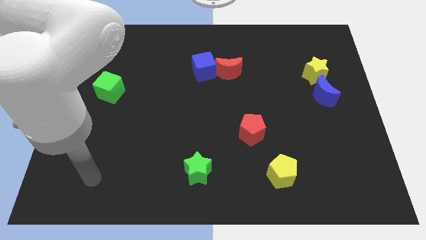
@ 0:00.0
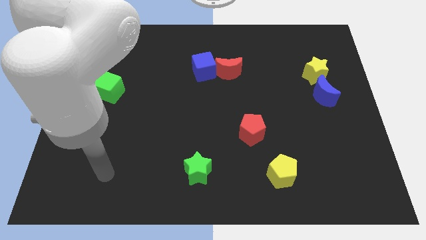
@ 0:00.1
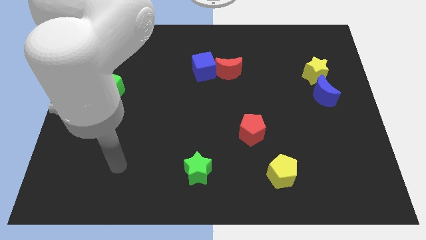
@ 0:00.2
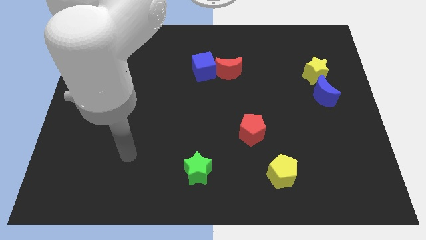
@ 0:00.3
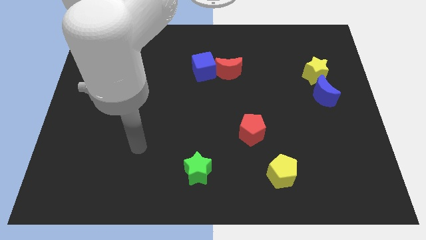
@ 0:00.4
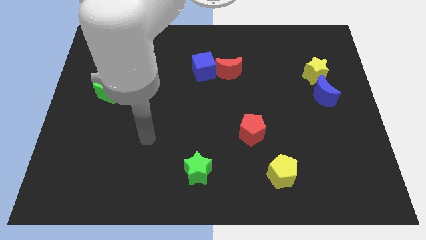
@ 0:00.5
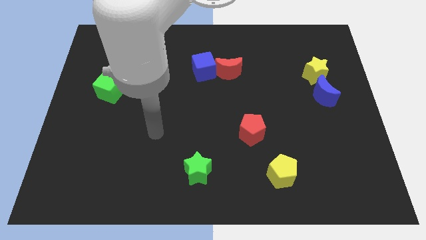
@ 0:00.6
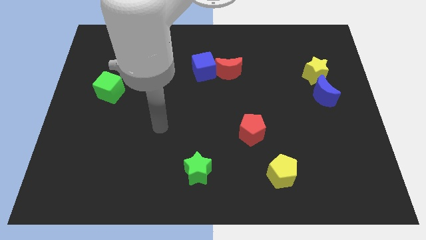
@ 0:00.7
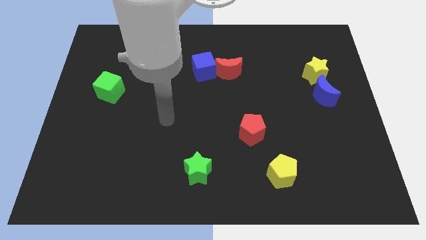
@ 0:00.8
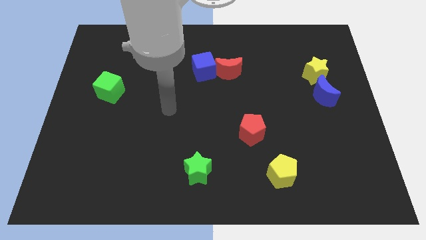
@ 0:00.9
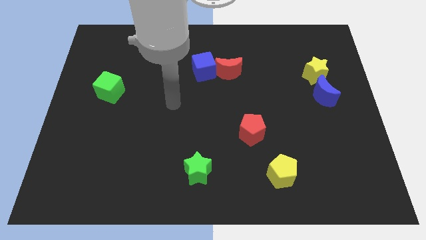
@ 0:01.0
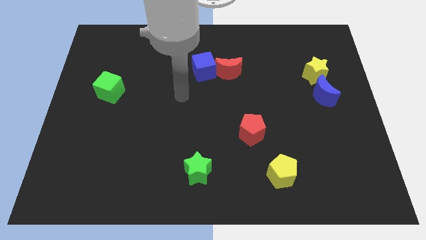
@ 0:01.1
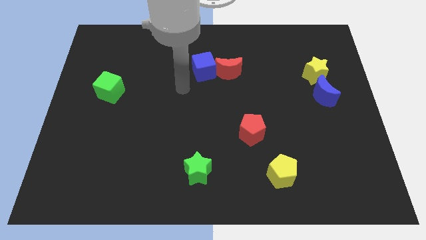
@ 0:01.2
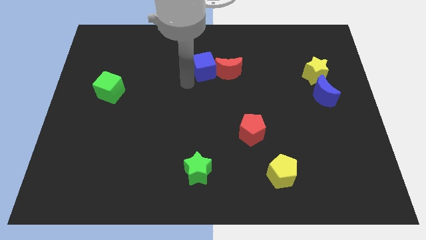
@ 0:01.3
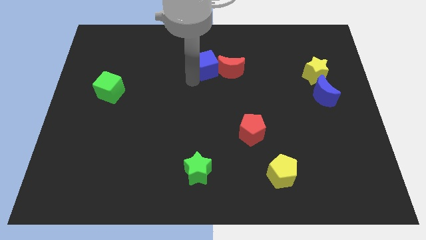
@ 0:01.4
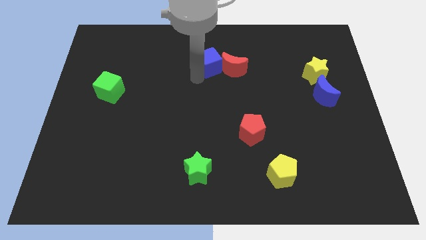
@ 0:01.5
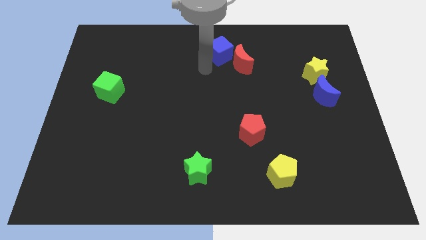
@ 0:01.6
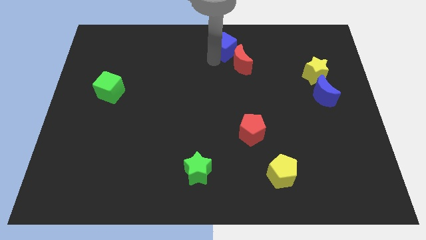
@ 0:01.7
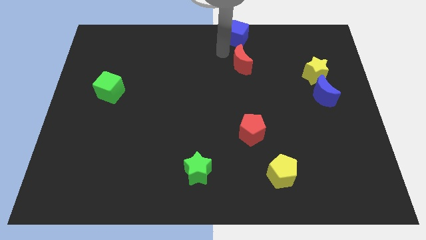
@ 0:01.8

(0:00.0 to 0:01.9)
separate the red moon from the blue cube

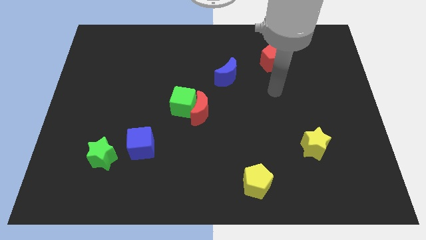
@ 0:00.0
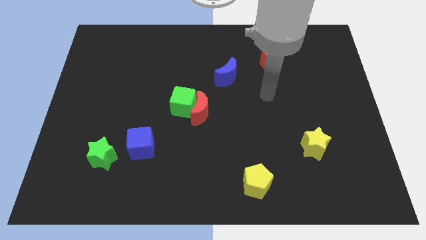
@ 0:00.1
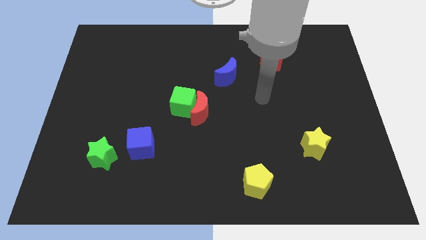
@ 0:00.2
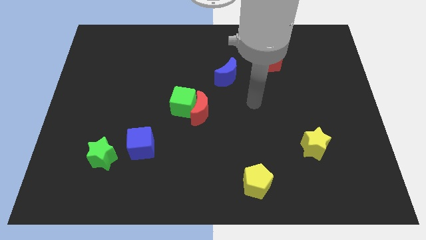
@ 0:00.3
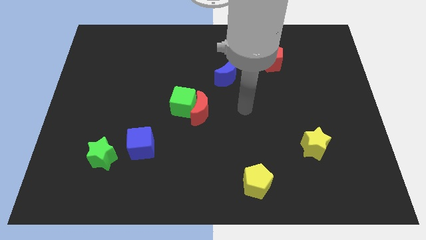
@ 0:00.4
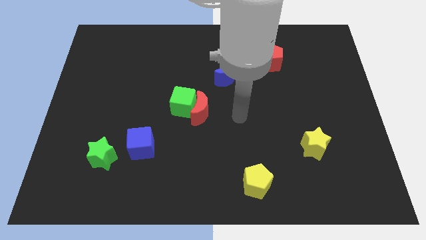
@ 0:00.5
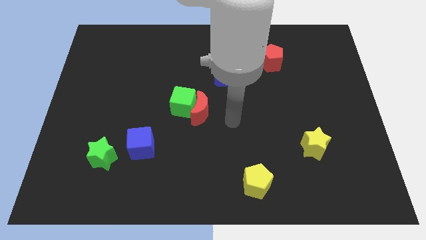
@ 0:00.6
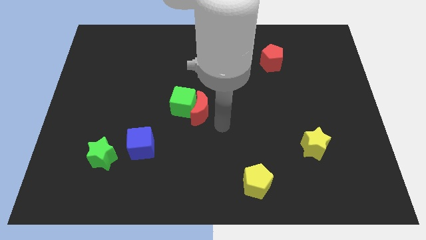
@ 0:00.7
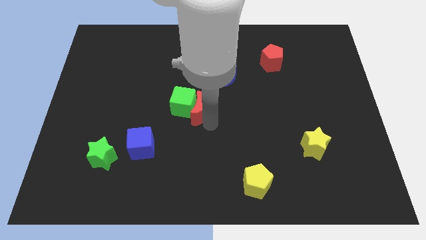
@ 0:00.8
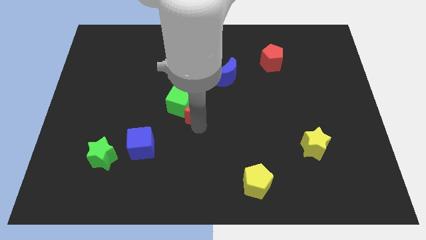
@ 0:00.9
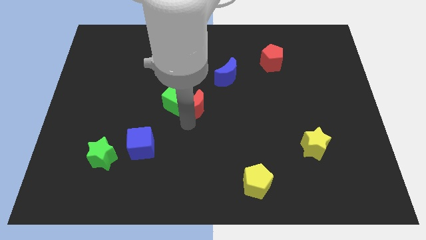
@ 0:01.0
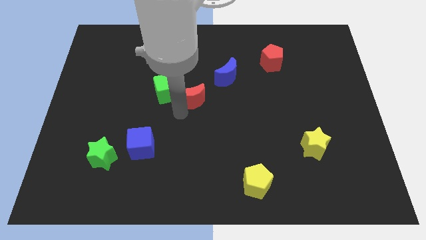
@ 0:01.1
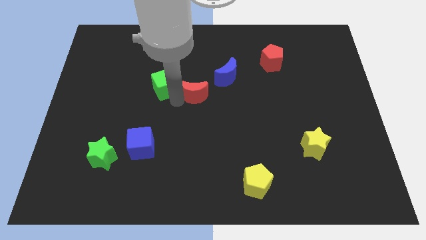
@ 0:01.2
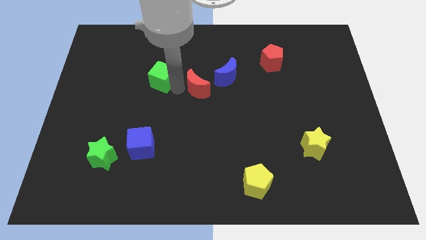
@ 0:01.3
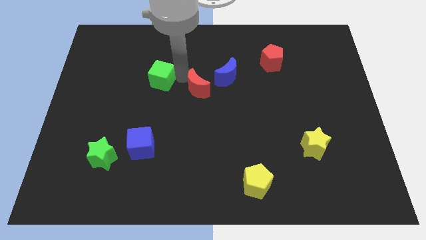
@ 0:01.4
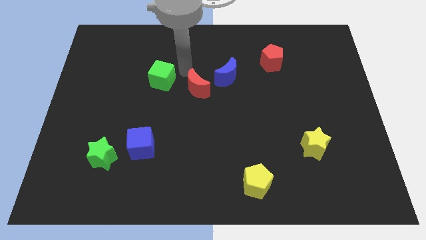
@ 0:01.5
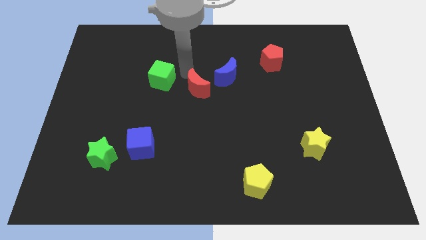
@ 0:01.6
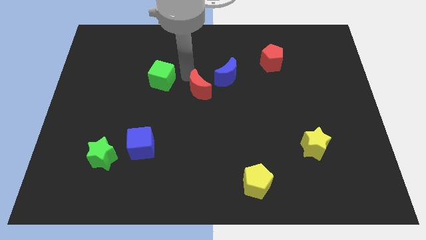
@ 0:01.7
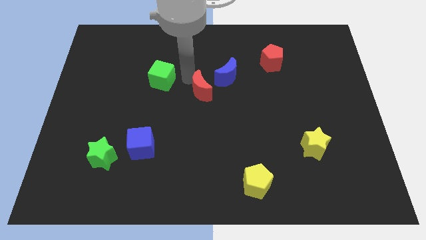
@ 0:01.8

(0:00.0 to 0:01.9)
pull the red moon apart from the green cube

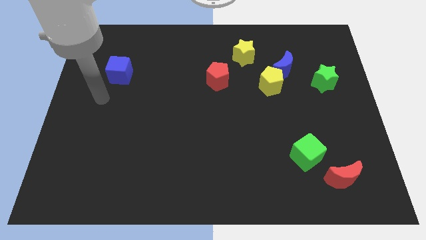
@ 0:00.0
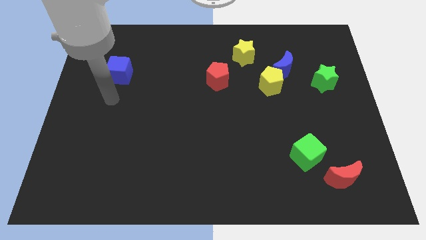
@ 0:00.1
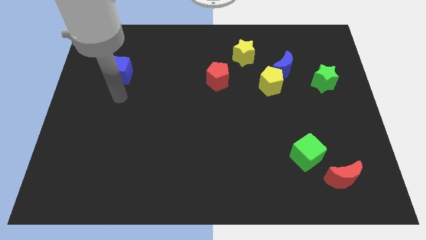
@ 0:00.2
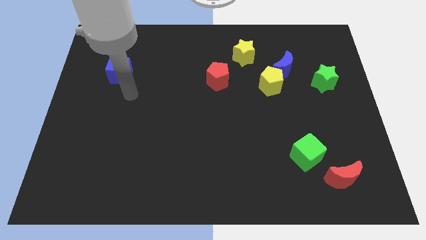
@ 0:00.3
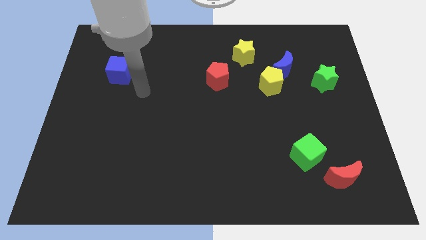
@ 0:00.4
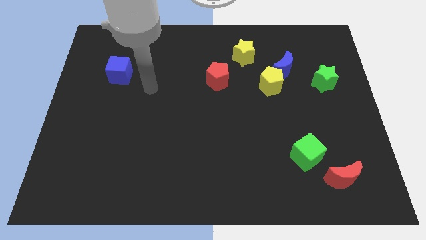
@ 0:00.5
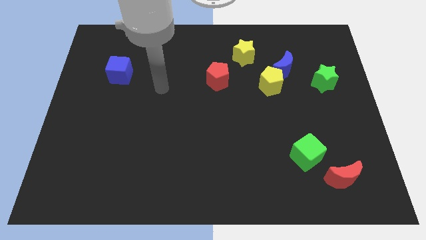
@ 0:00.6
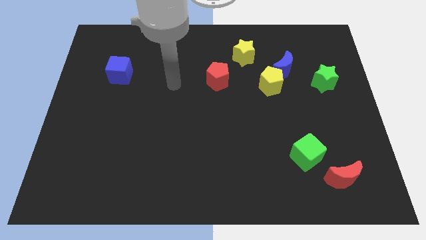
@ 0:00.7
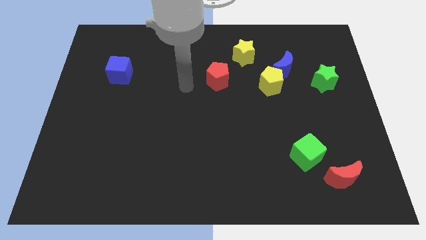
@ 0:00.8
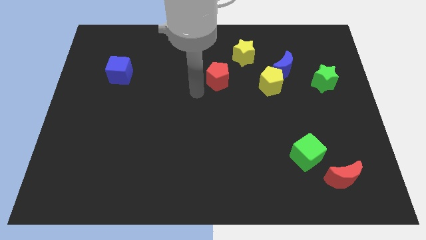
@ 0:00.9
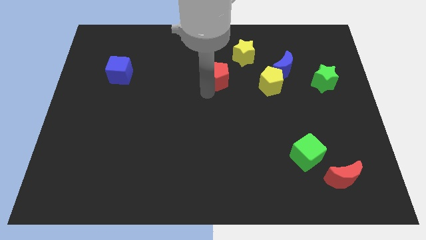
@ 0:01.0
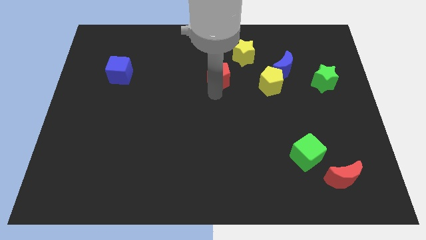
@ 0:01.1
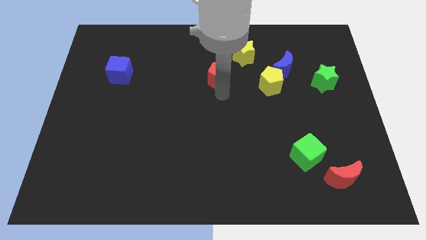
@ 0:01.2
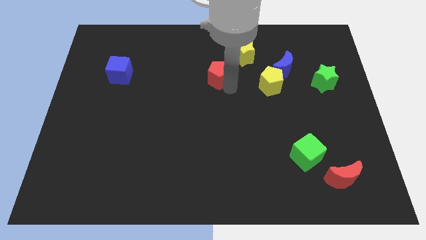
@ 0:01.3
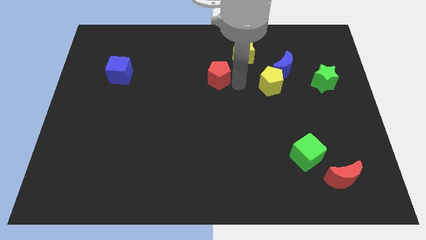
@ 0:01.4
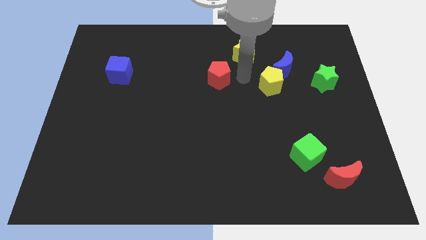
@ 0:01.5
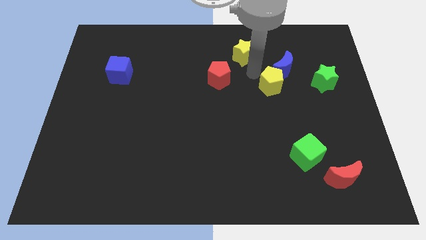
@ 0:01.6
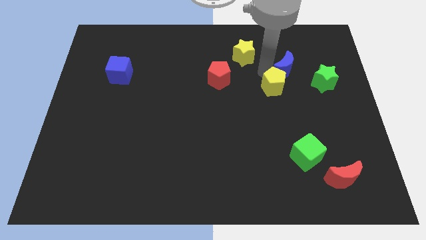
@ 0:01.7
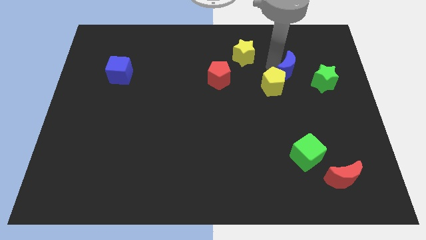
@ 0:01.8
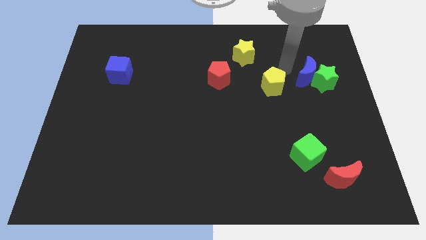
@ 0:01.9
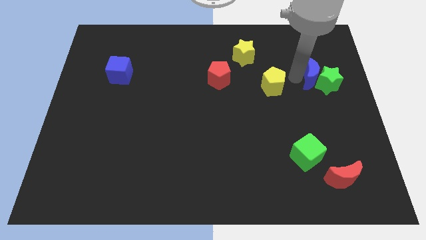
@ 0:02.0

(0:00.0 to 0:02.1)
separate the yellow pentagon from the blue moon

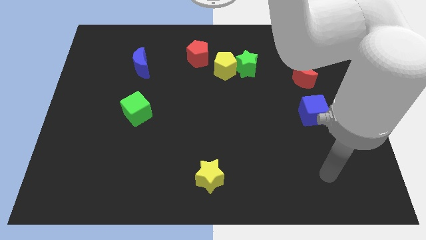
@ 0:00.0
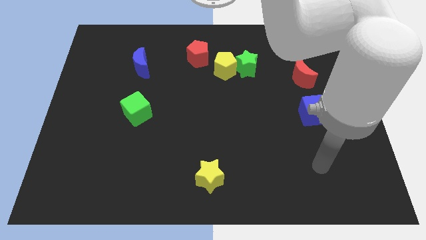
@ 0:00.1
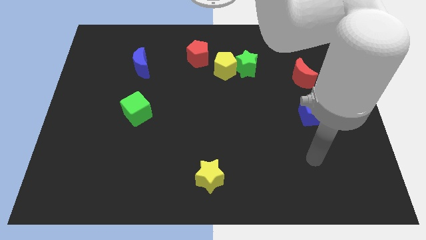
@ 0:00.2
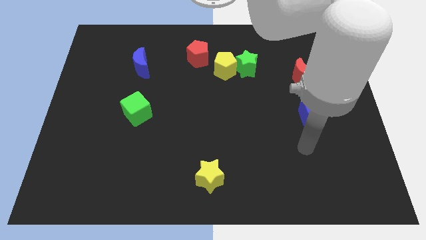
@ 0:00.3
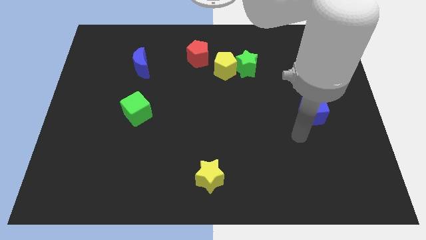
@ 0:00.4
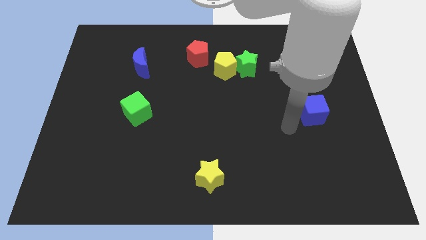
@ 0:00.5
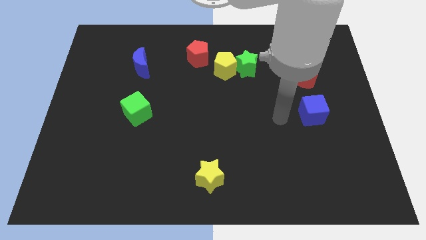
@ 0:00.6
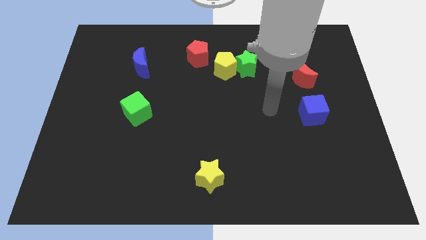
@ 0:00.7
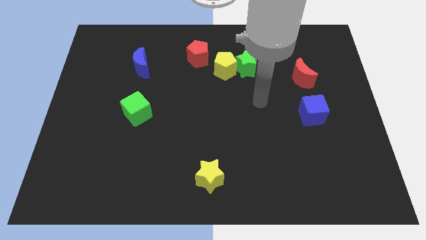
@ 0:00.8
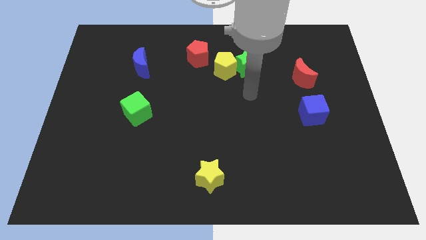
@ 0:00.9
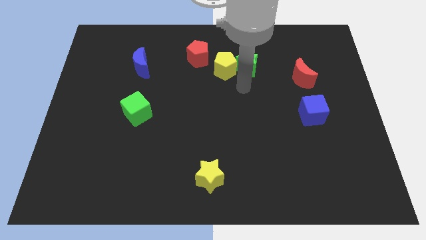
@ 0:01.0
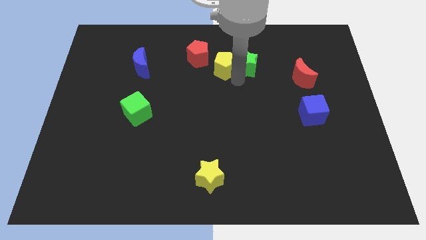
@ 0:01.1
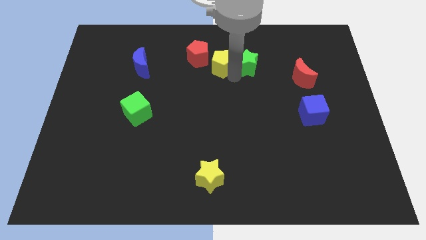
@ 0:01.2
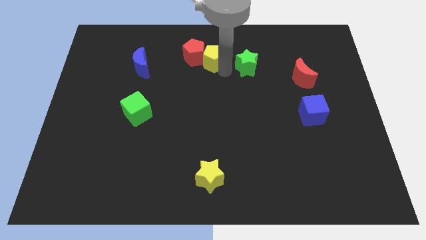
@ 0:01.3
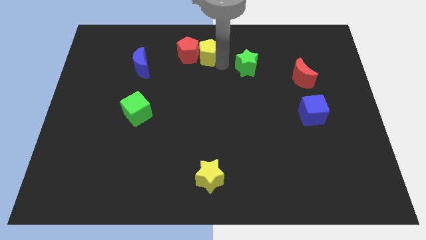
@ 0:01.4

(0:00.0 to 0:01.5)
separate the green star from the yellow pentagon

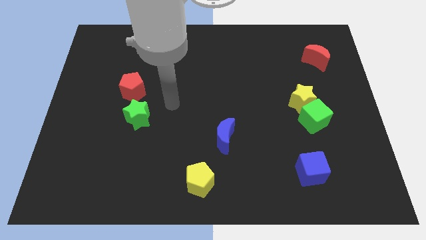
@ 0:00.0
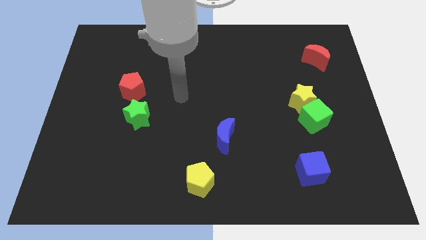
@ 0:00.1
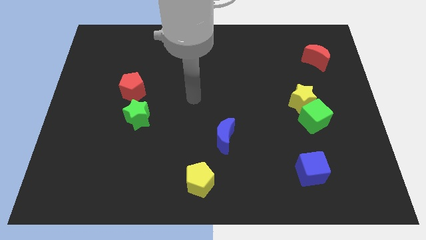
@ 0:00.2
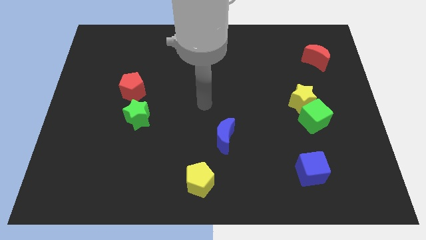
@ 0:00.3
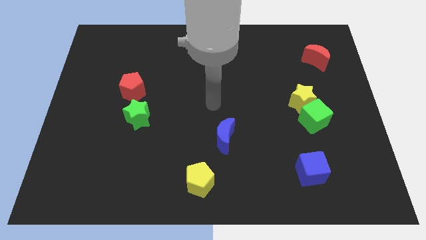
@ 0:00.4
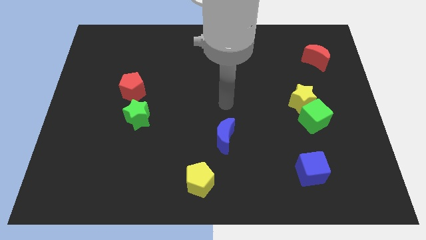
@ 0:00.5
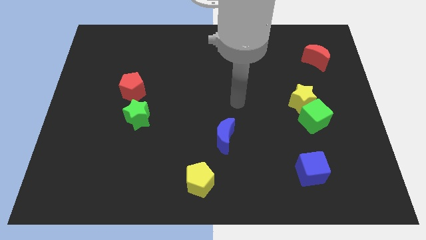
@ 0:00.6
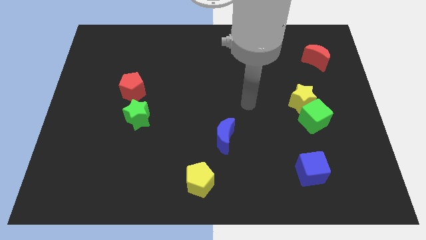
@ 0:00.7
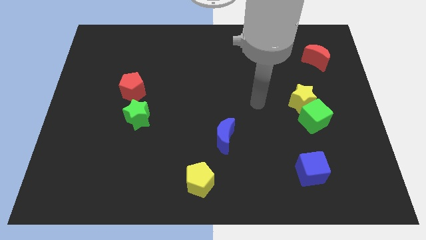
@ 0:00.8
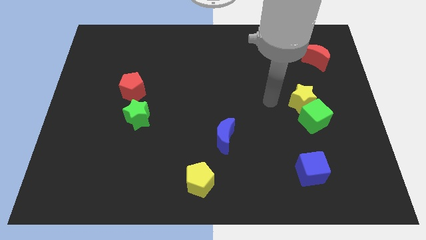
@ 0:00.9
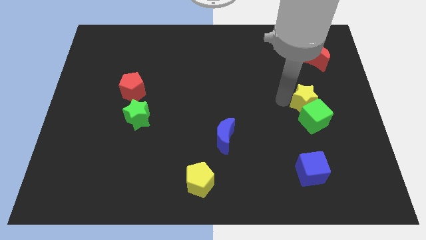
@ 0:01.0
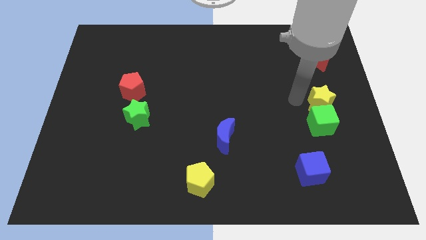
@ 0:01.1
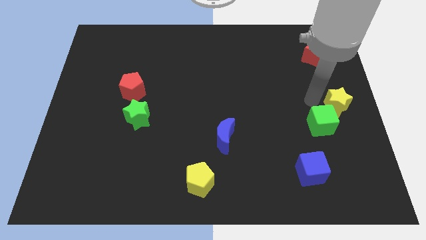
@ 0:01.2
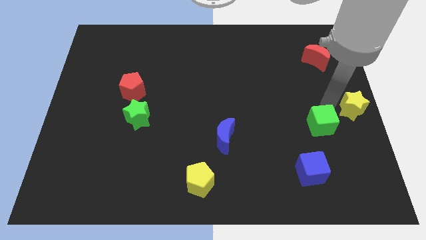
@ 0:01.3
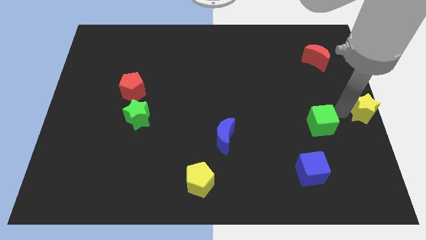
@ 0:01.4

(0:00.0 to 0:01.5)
move the green cube away from the yellow star

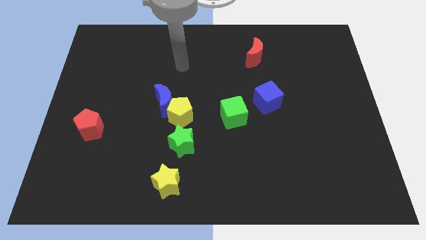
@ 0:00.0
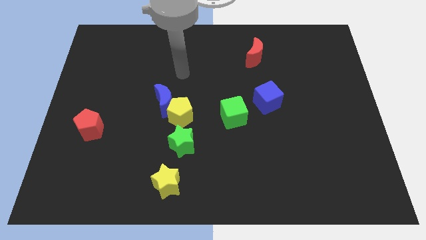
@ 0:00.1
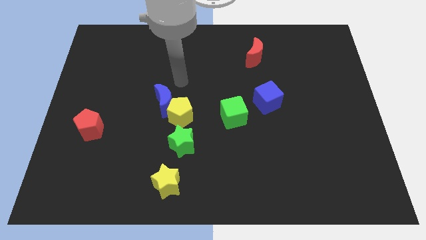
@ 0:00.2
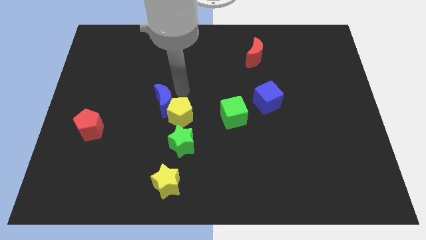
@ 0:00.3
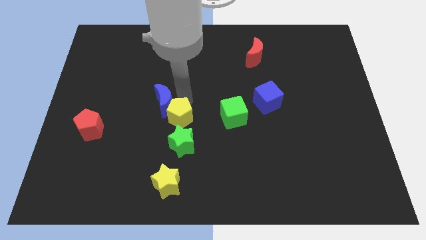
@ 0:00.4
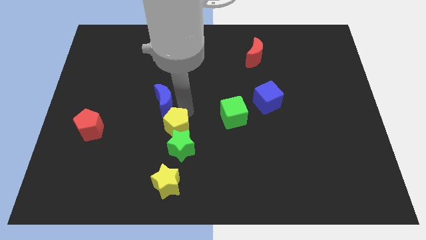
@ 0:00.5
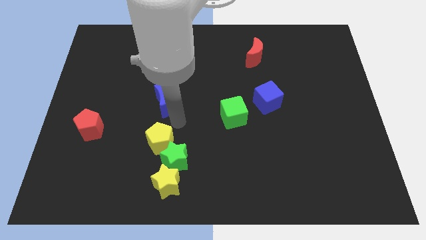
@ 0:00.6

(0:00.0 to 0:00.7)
move the blue moon away from the yellow pentagon
